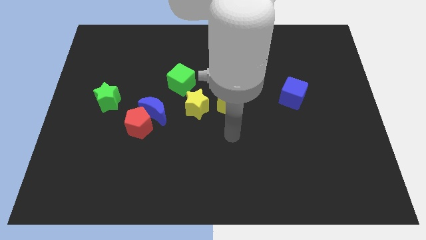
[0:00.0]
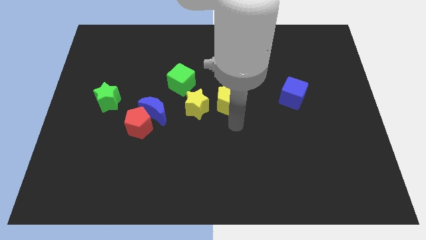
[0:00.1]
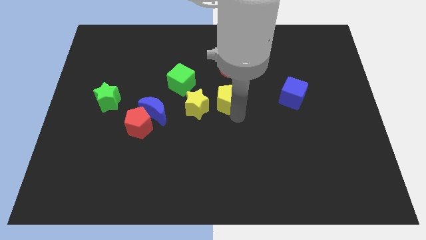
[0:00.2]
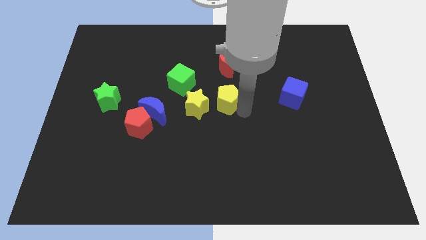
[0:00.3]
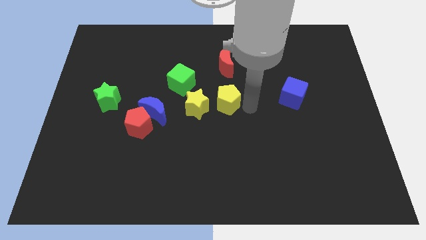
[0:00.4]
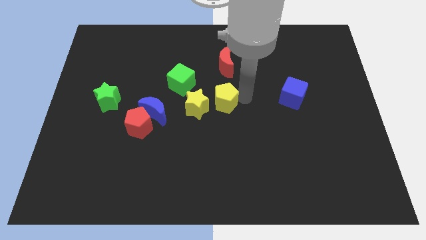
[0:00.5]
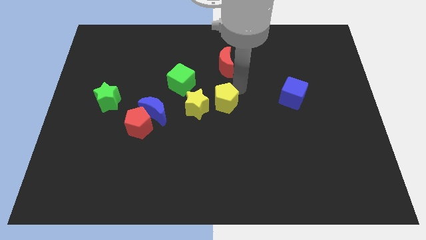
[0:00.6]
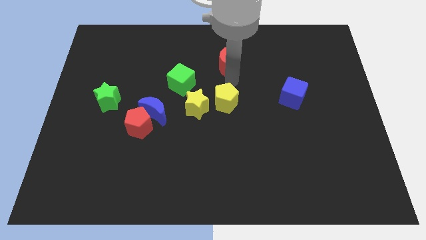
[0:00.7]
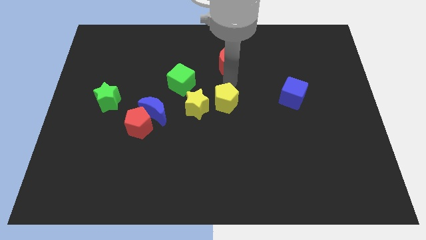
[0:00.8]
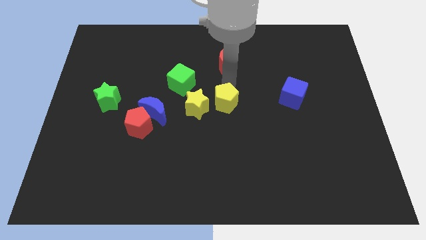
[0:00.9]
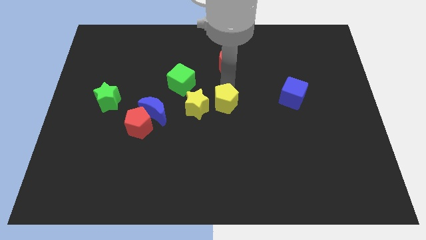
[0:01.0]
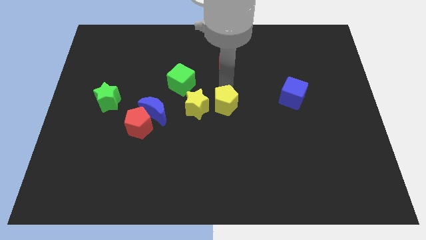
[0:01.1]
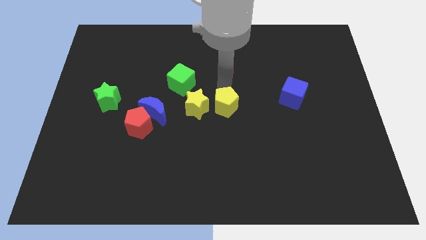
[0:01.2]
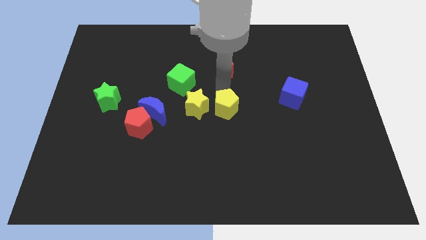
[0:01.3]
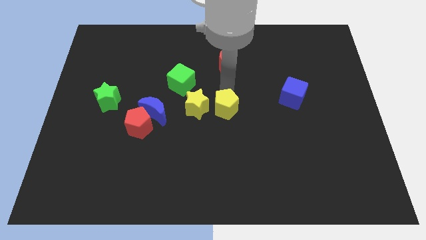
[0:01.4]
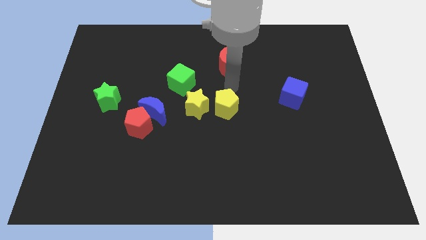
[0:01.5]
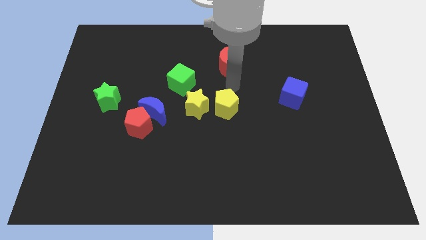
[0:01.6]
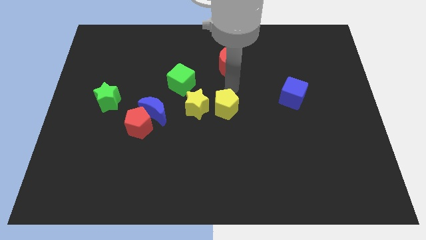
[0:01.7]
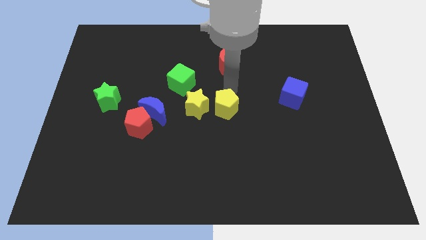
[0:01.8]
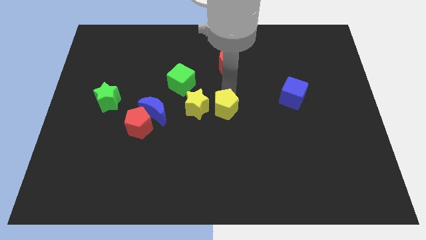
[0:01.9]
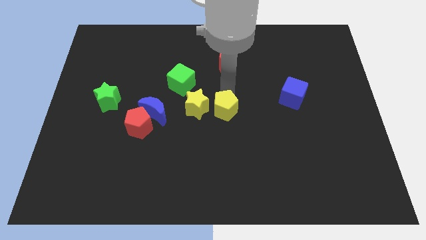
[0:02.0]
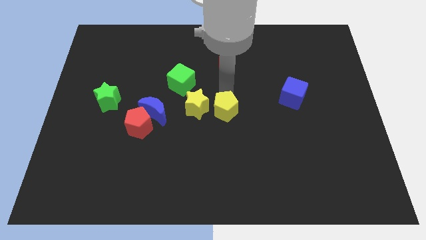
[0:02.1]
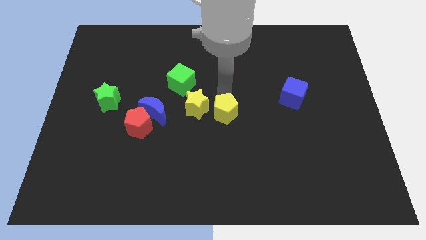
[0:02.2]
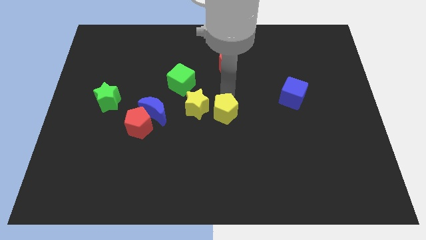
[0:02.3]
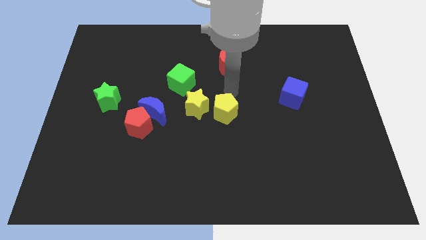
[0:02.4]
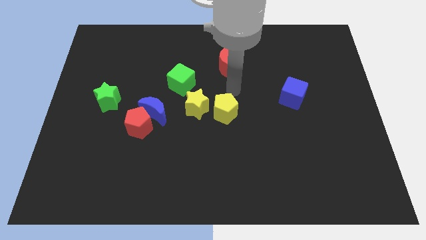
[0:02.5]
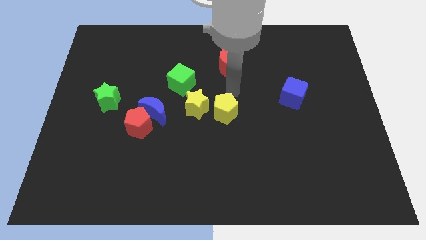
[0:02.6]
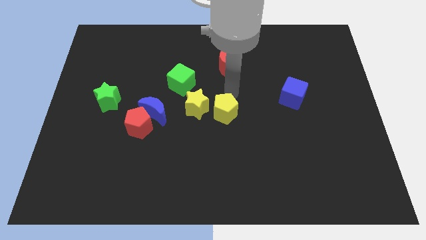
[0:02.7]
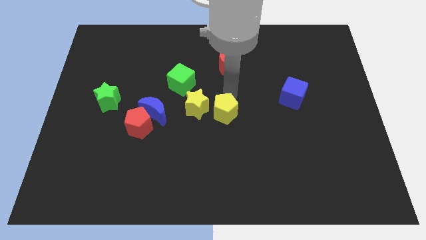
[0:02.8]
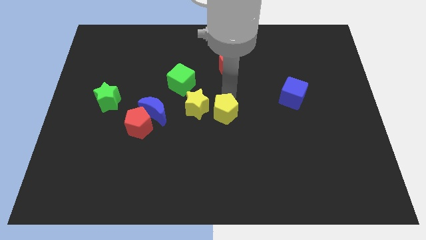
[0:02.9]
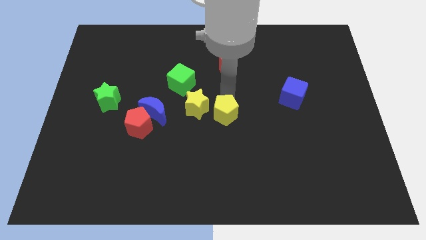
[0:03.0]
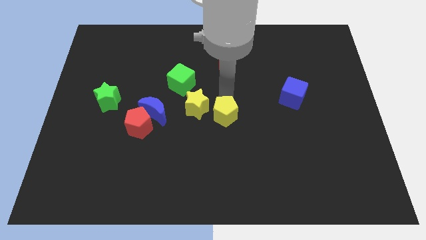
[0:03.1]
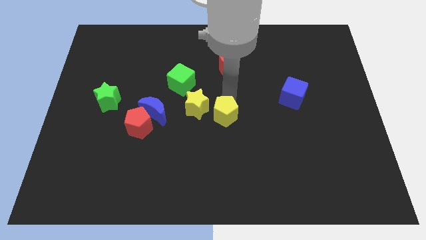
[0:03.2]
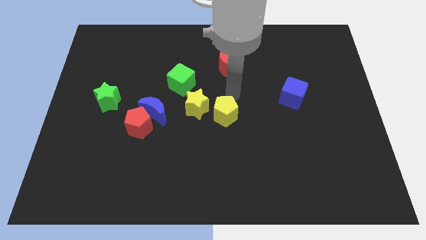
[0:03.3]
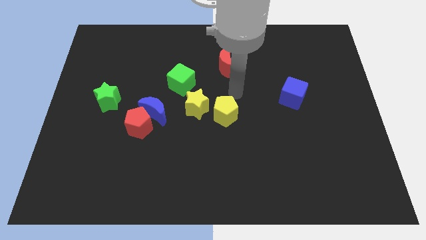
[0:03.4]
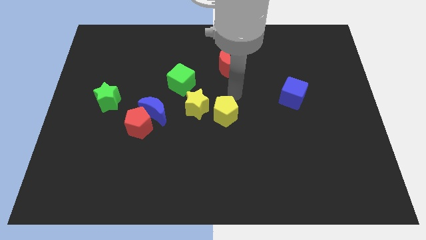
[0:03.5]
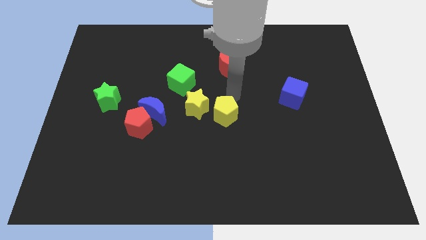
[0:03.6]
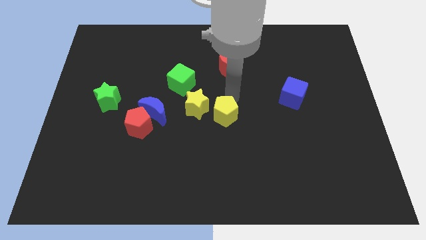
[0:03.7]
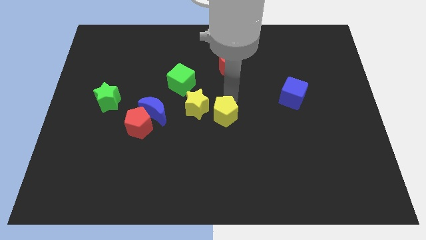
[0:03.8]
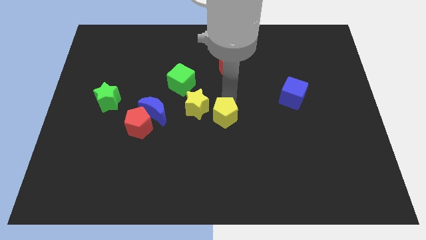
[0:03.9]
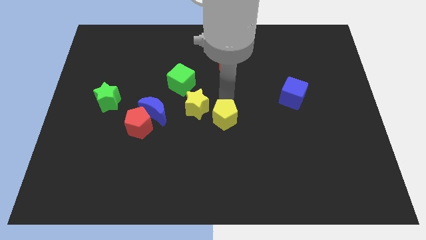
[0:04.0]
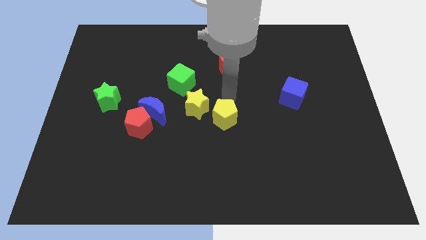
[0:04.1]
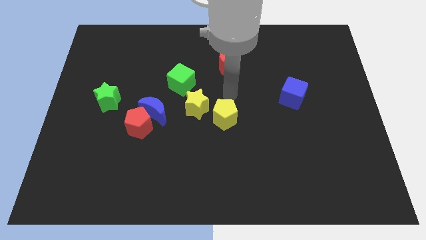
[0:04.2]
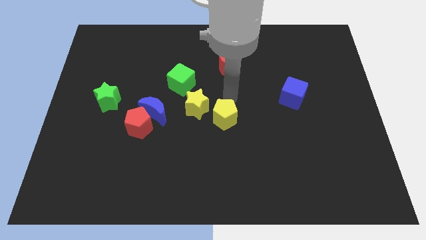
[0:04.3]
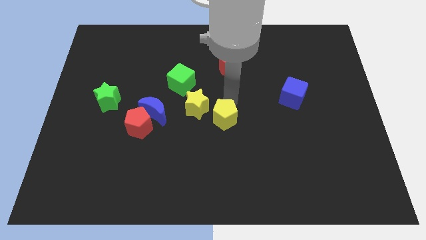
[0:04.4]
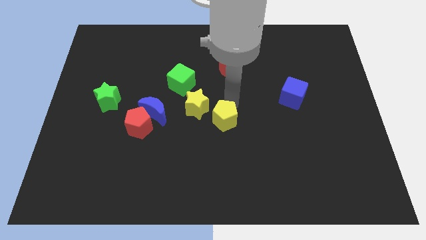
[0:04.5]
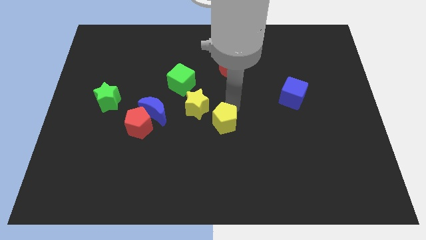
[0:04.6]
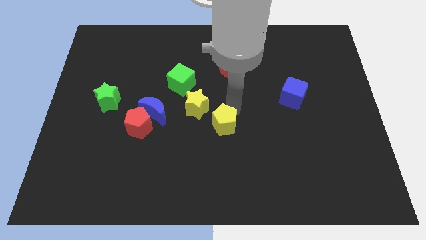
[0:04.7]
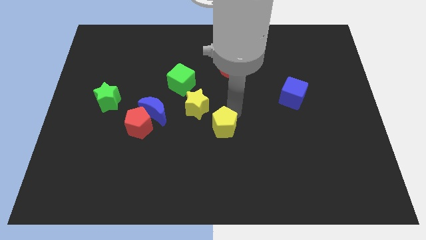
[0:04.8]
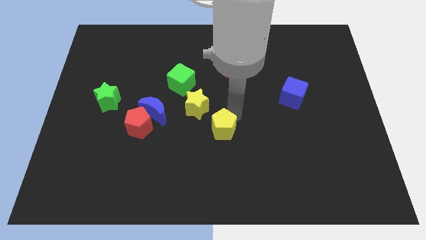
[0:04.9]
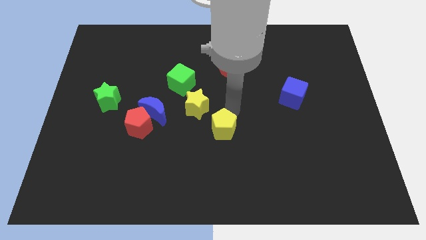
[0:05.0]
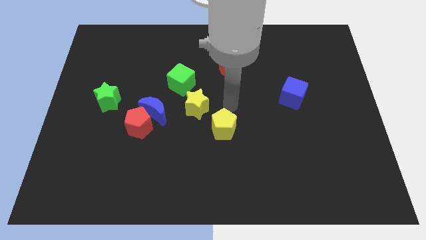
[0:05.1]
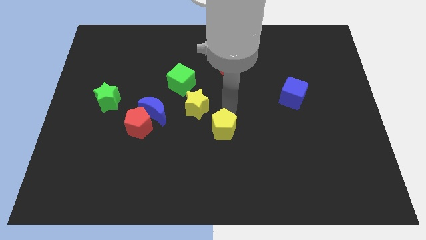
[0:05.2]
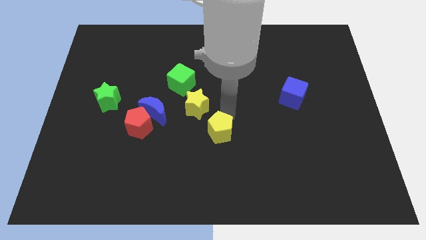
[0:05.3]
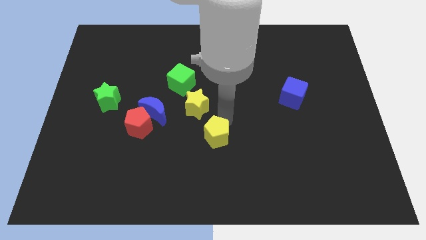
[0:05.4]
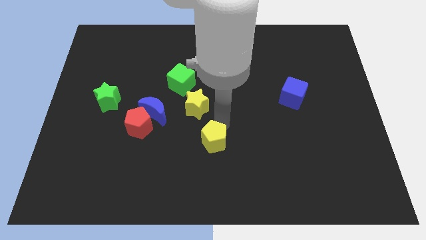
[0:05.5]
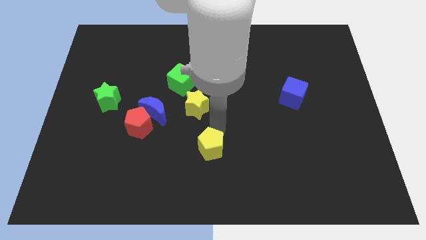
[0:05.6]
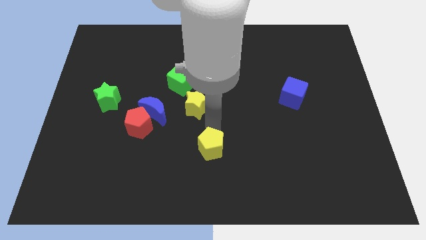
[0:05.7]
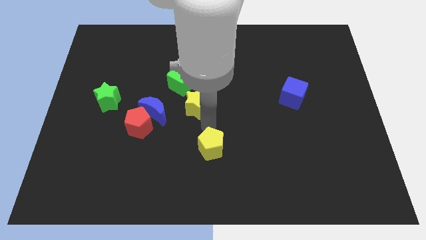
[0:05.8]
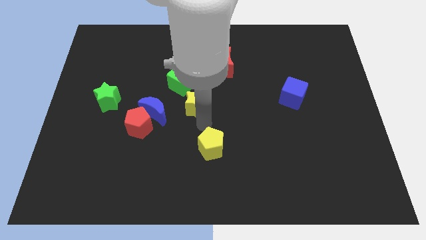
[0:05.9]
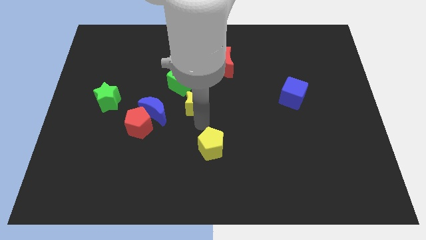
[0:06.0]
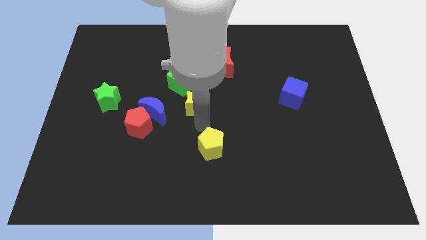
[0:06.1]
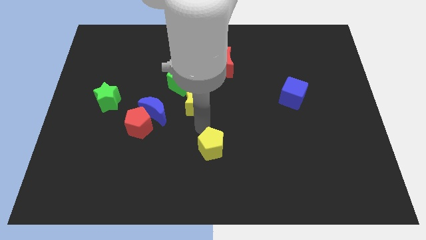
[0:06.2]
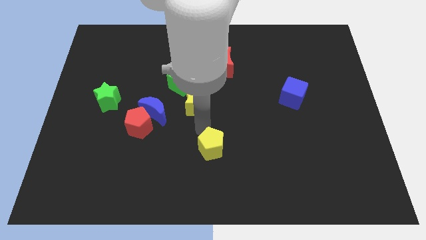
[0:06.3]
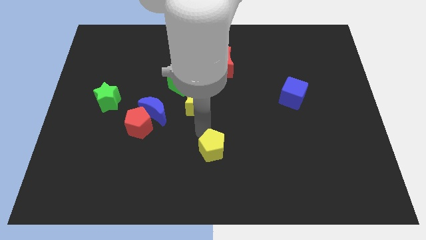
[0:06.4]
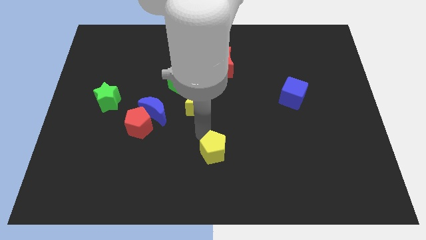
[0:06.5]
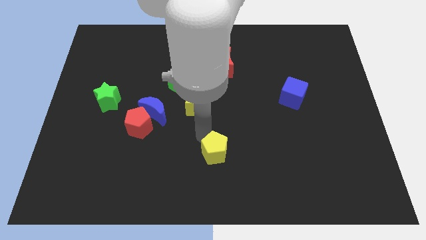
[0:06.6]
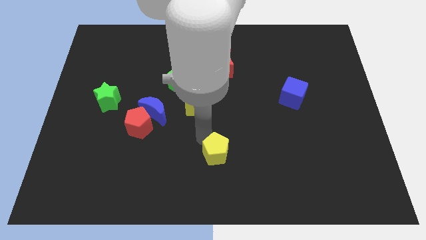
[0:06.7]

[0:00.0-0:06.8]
move the yellow pentagon to the bottom side
